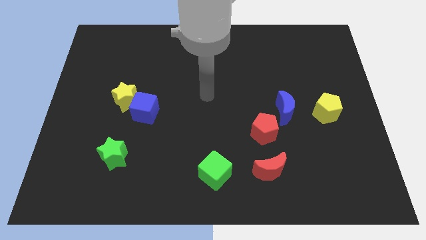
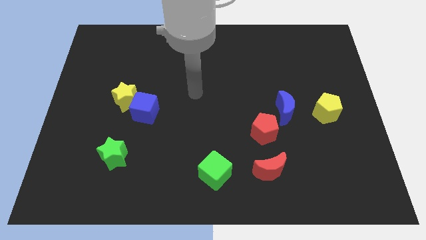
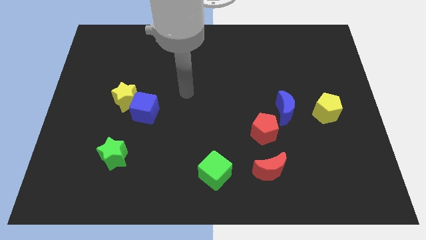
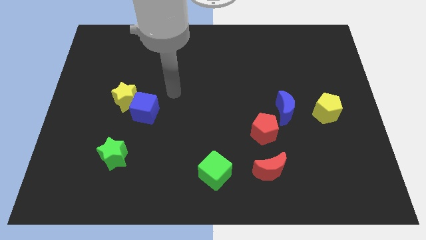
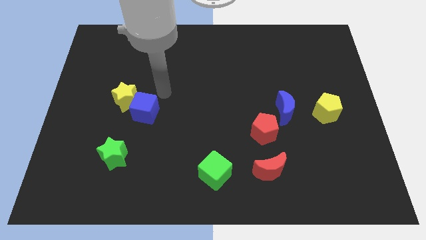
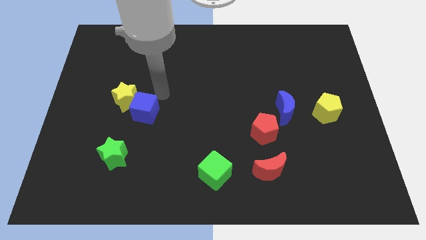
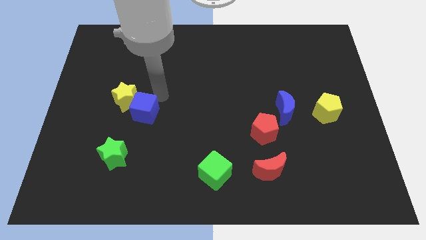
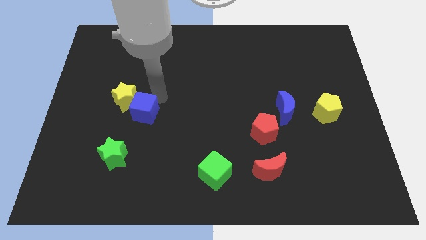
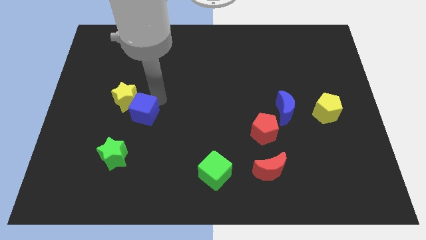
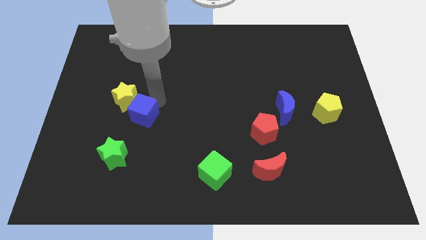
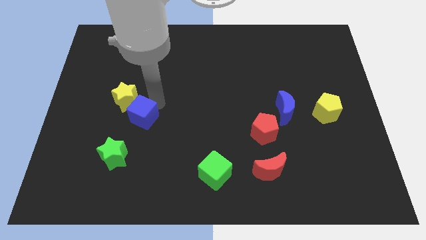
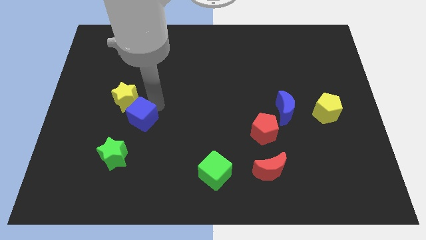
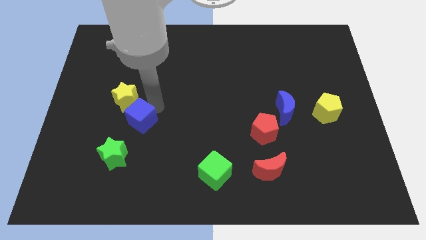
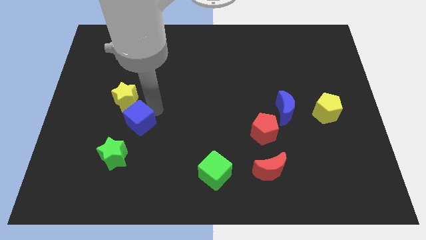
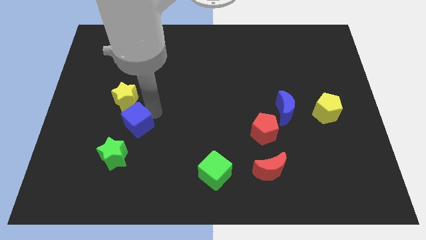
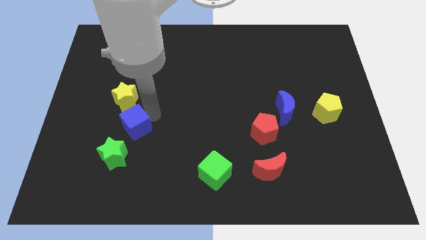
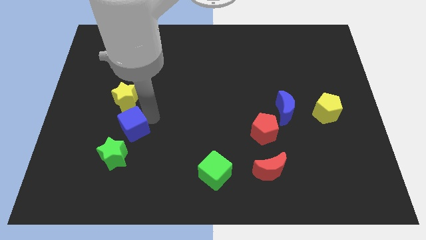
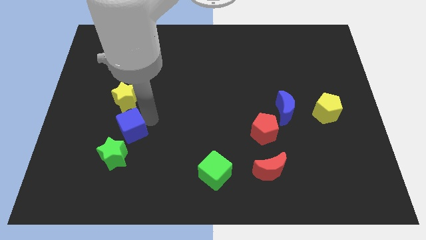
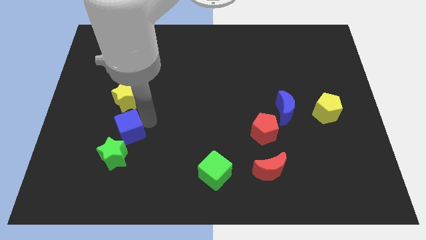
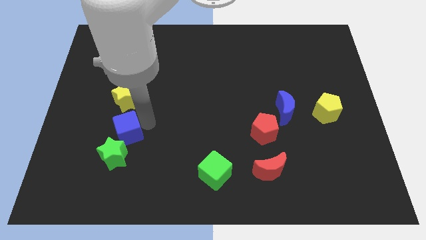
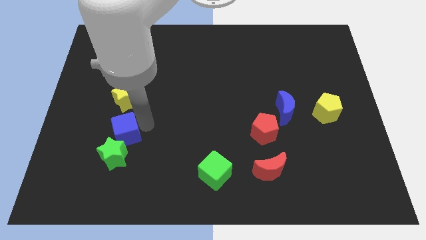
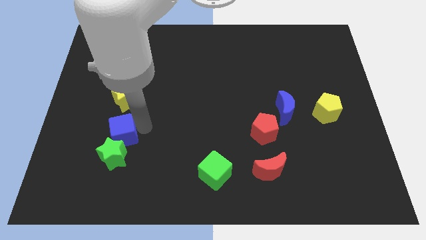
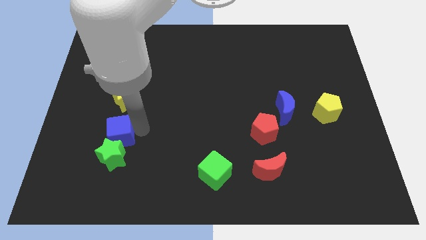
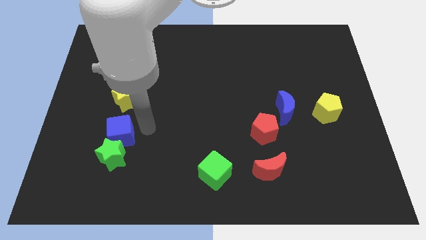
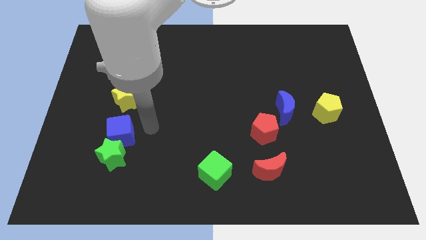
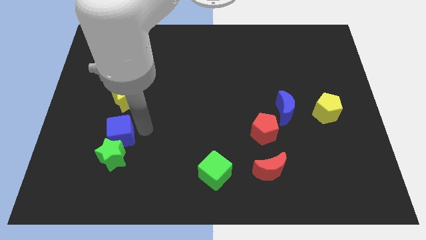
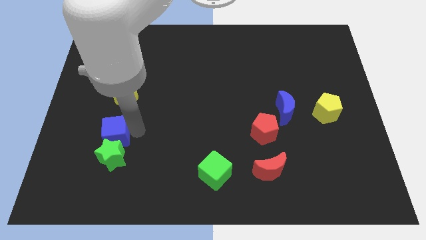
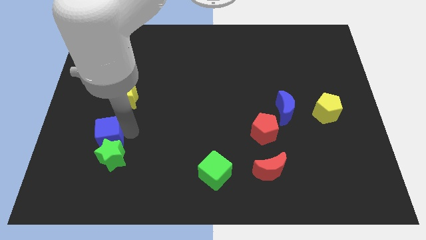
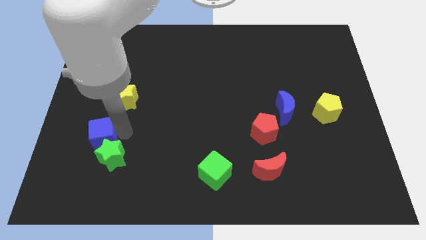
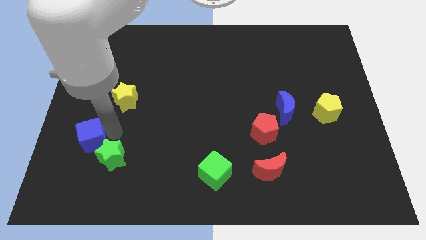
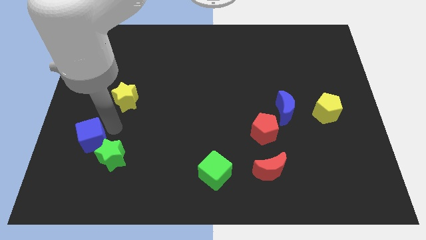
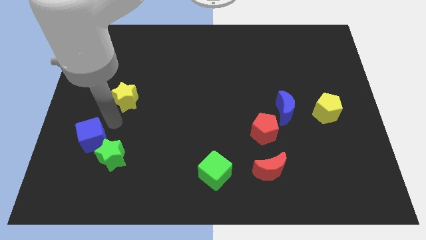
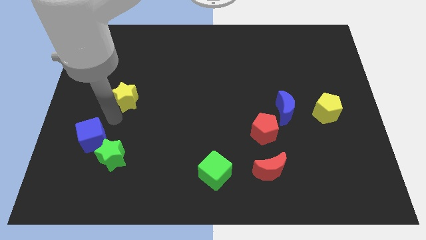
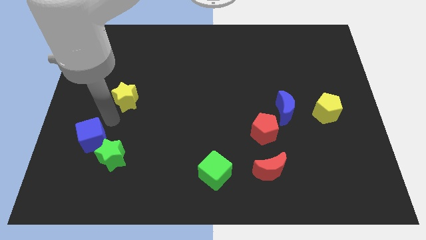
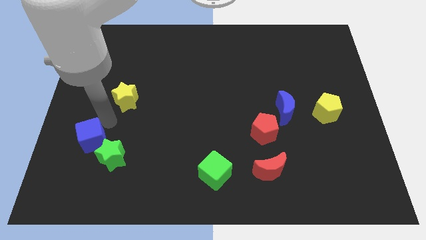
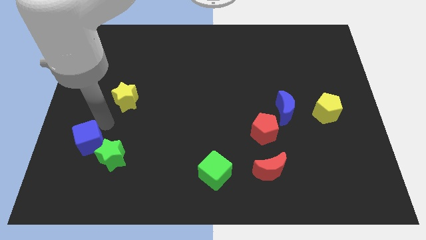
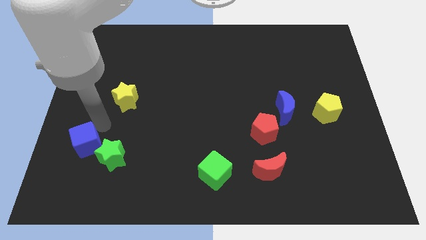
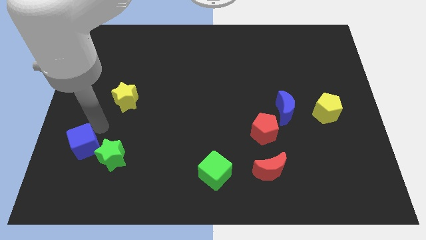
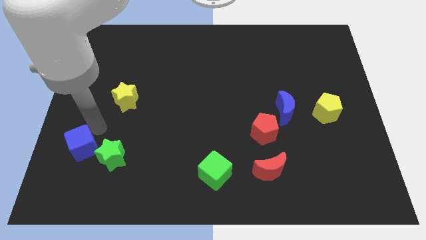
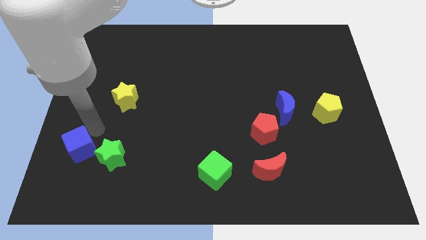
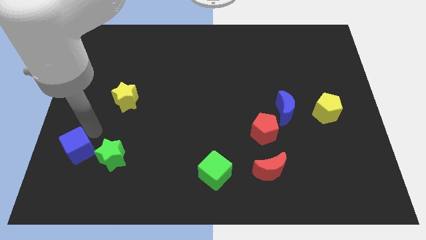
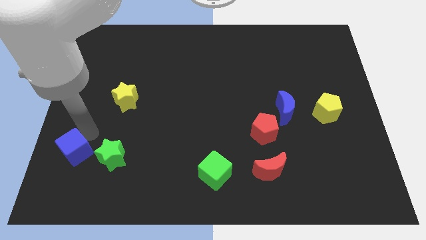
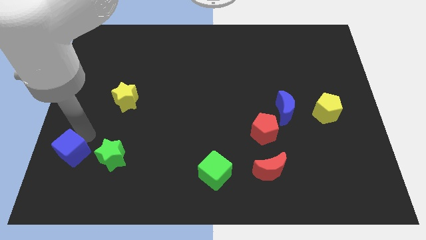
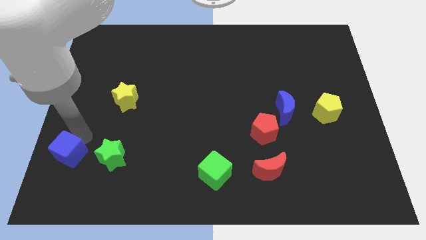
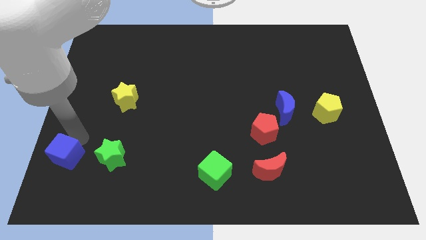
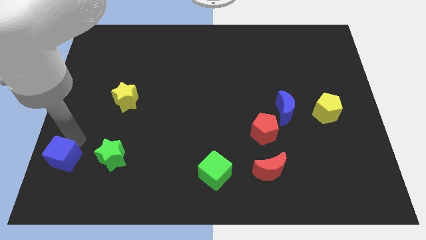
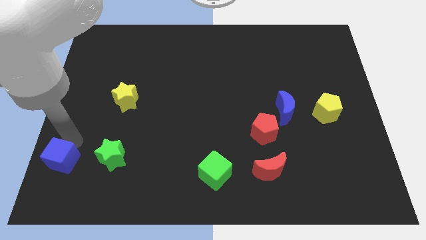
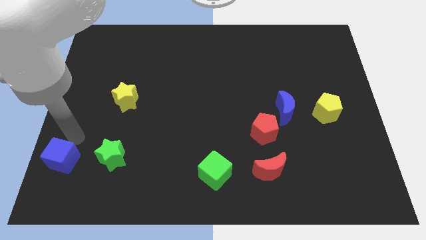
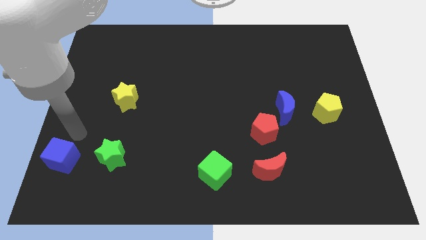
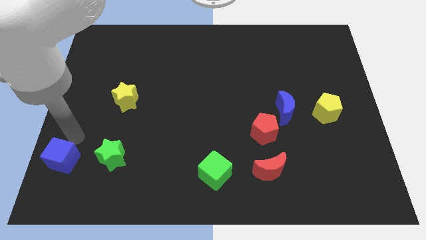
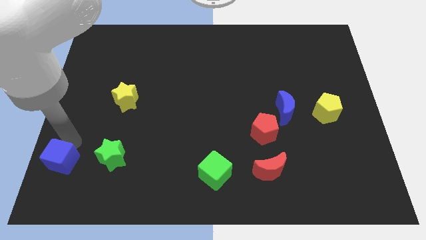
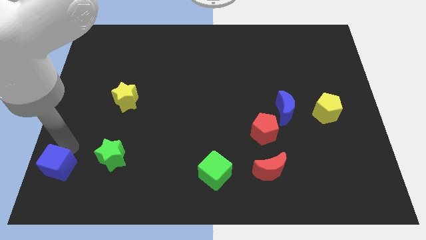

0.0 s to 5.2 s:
move the blue cube to the bottom left corner

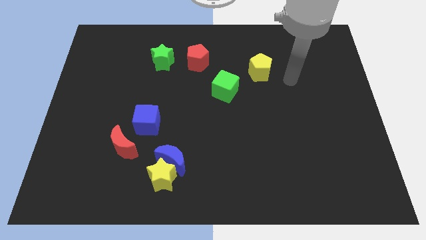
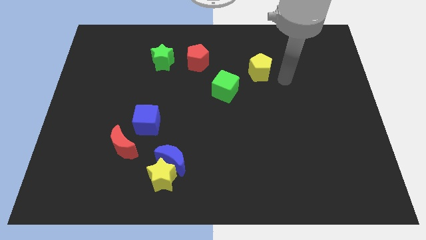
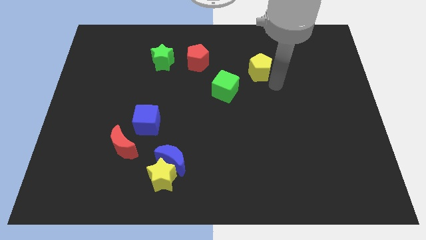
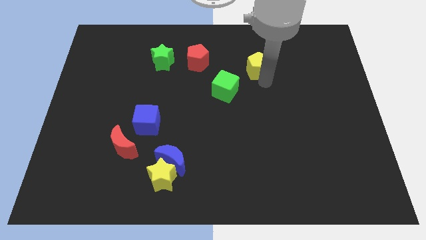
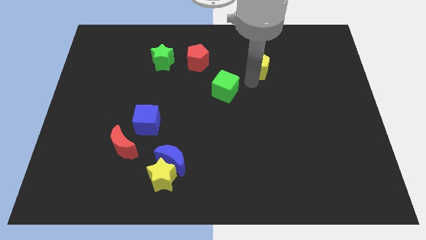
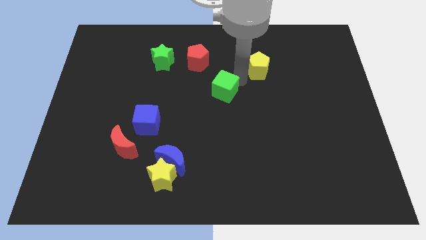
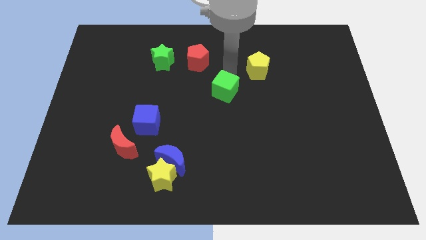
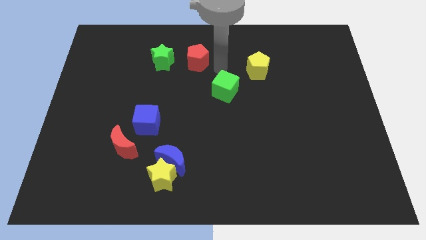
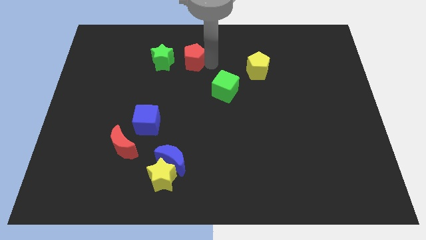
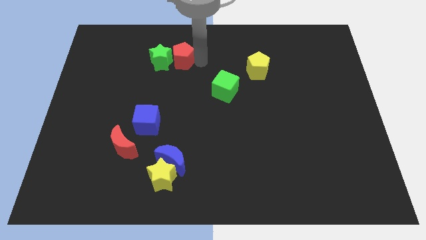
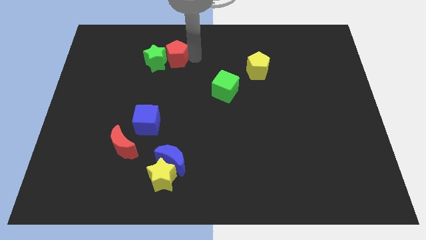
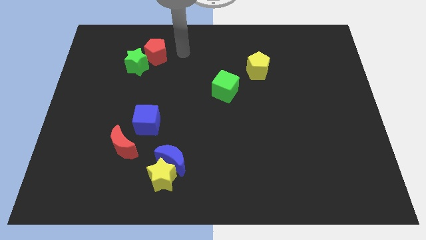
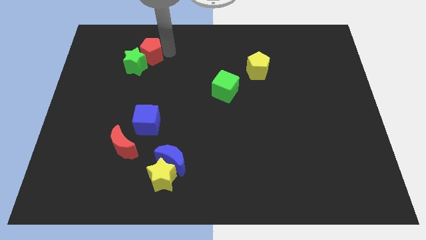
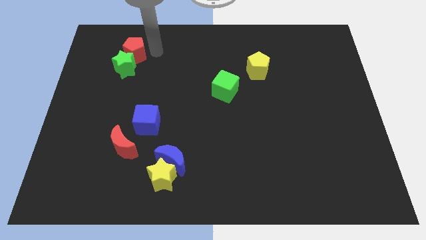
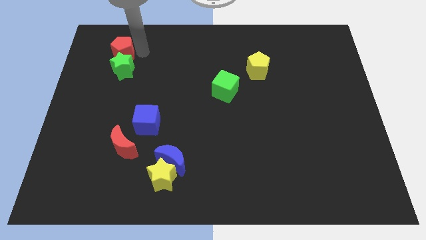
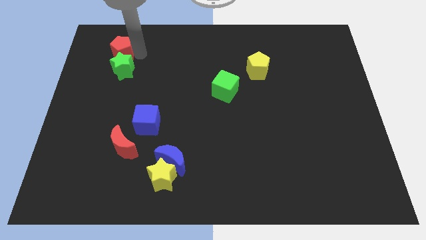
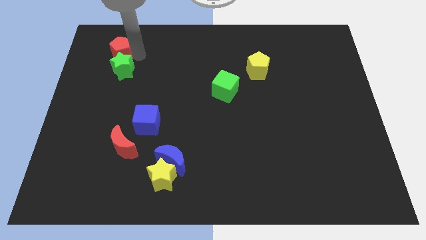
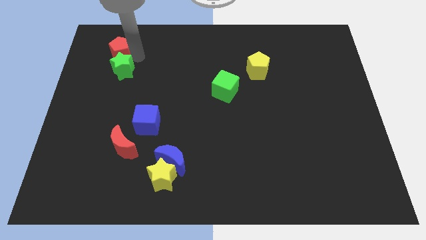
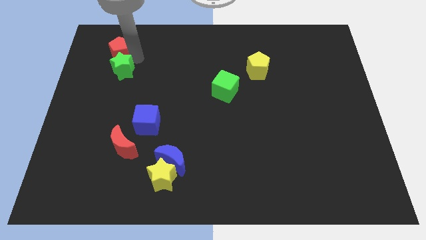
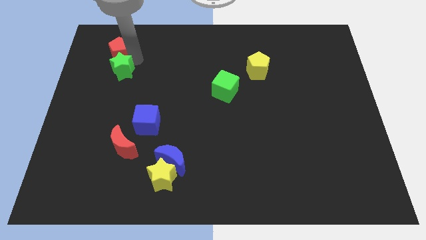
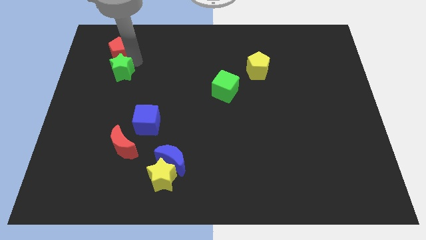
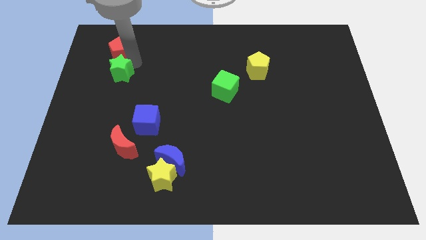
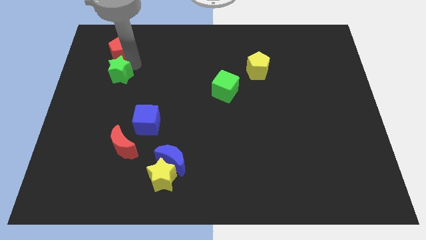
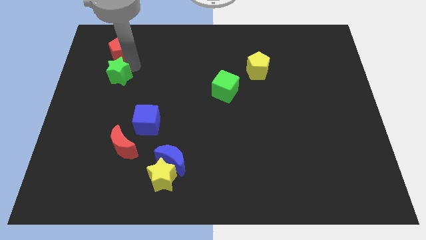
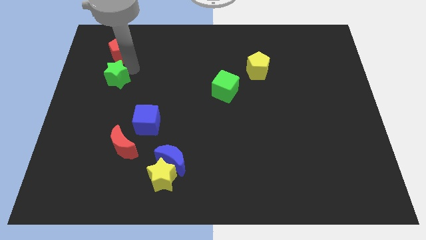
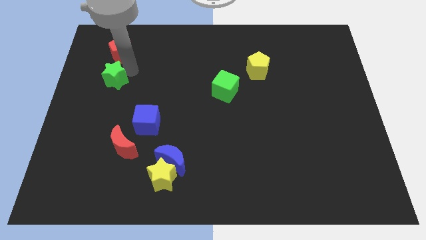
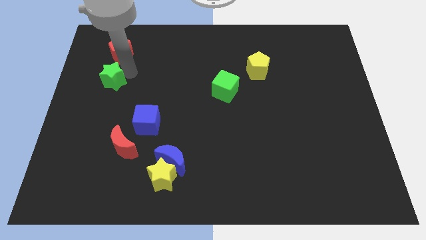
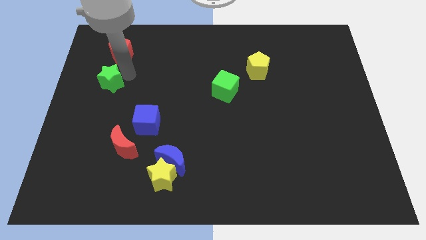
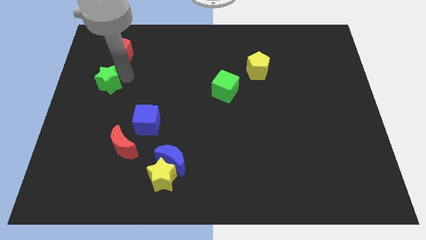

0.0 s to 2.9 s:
push the green star to the left side of the board

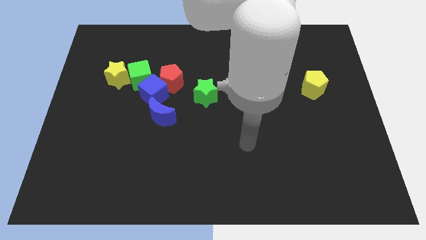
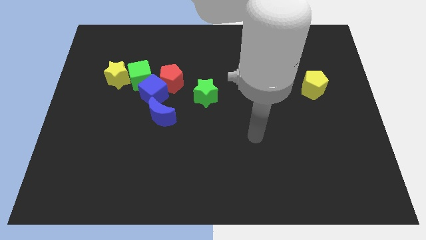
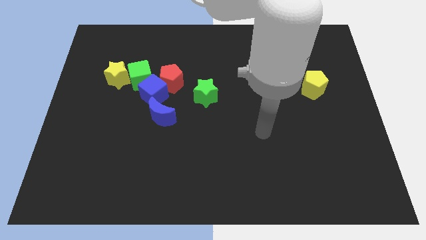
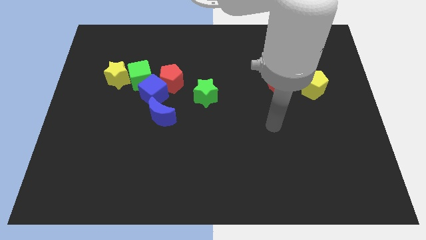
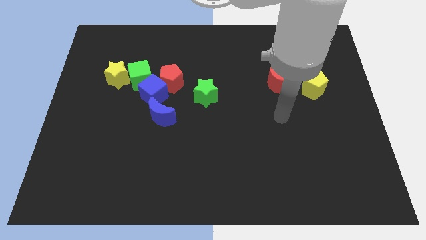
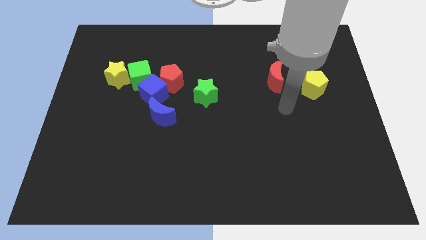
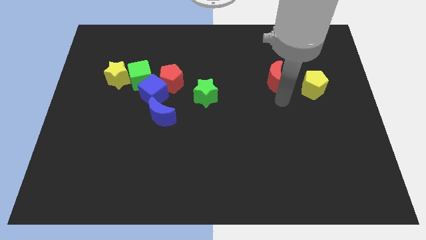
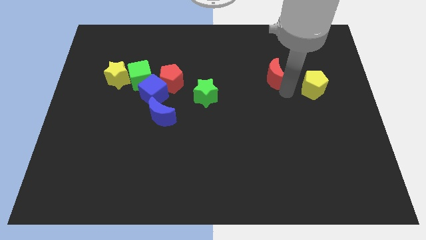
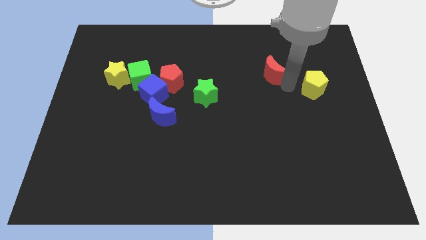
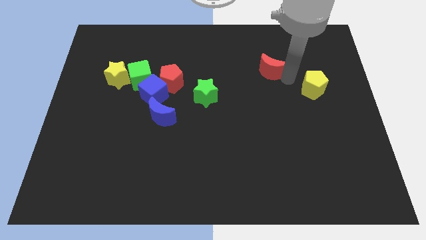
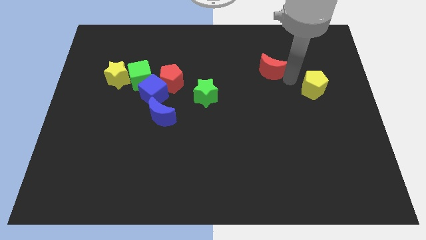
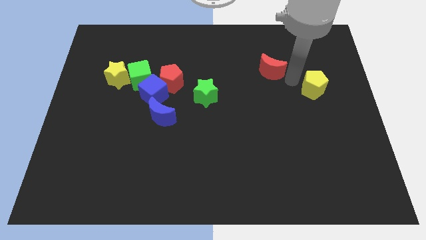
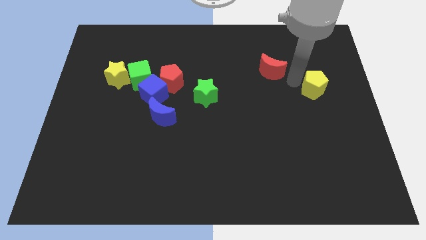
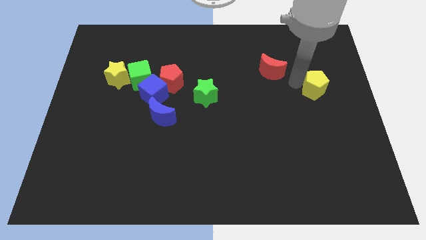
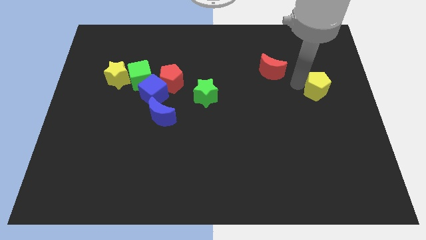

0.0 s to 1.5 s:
put the yellow pentagon to the center right
